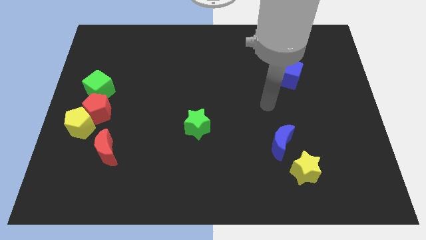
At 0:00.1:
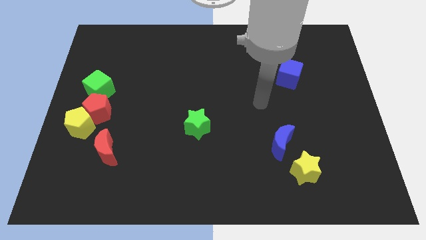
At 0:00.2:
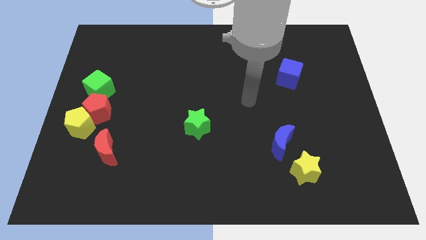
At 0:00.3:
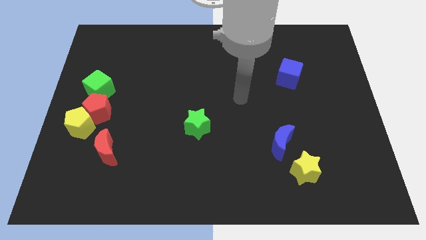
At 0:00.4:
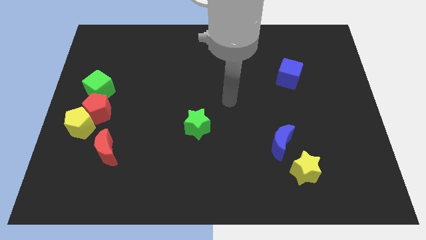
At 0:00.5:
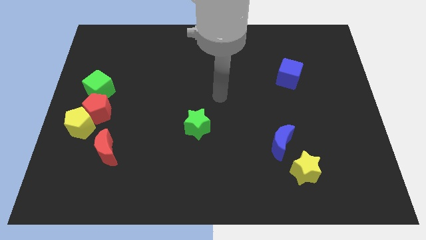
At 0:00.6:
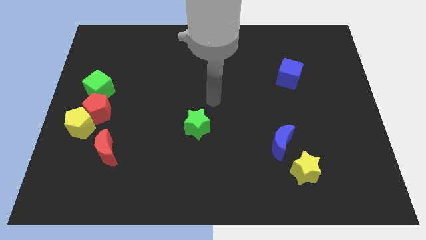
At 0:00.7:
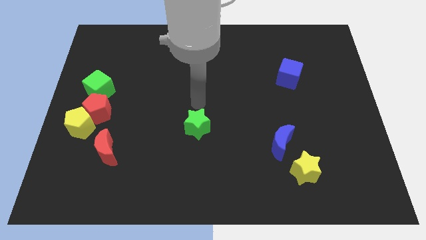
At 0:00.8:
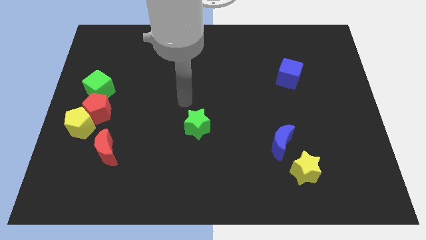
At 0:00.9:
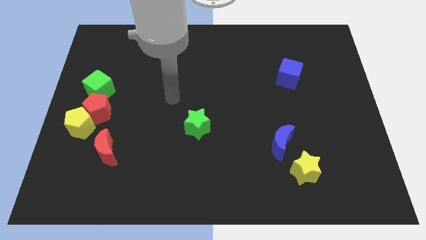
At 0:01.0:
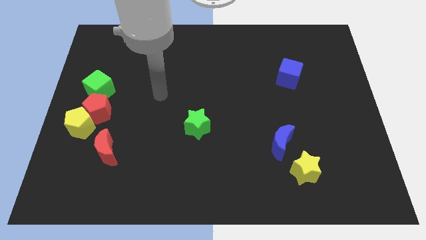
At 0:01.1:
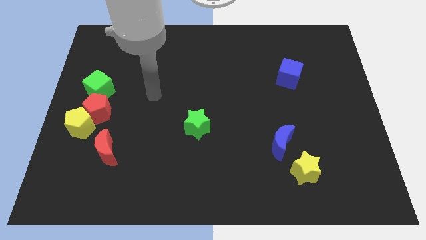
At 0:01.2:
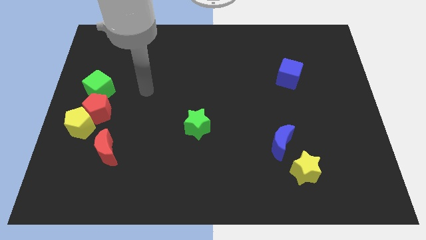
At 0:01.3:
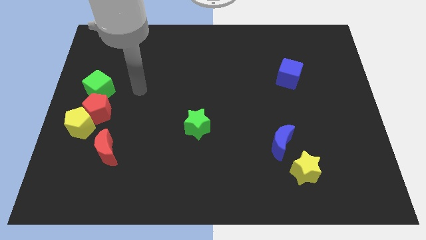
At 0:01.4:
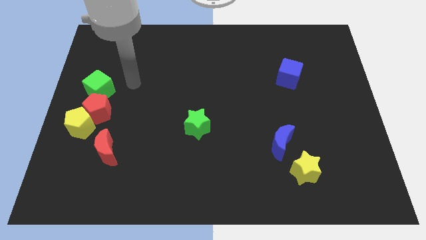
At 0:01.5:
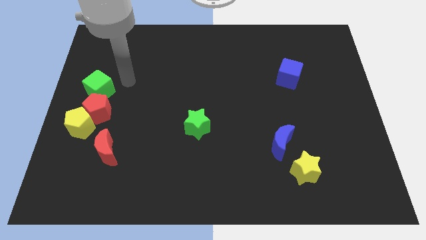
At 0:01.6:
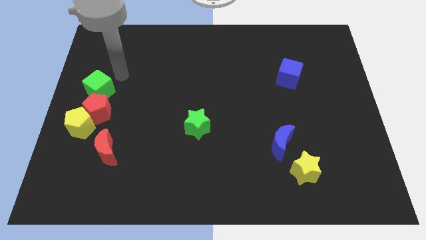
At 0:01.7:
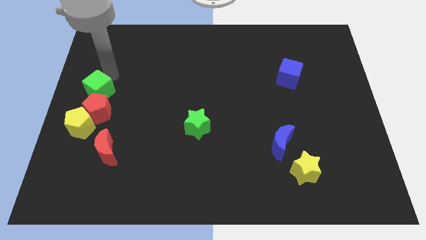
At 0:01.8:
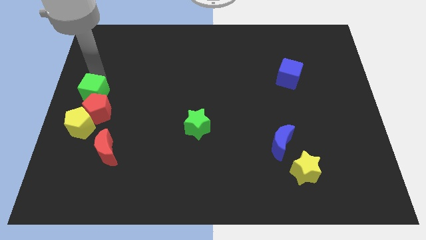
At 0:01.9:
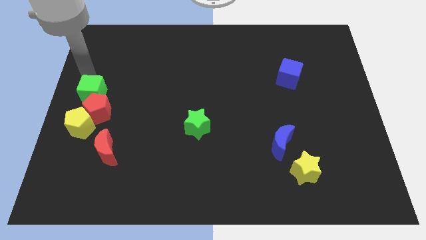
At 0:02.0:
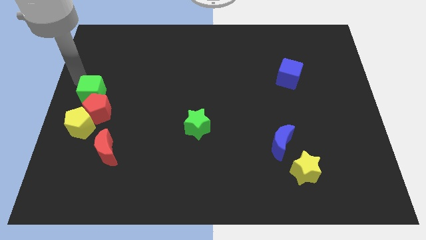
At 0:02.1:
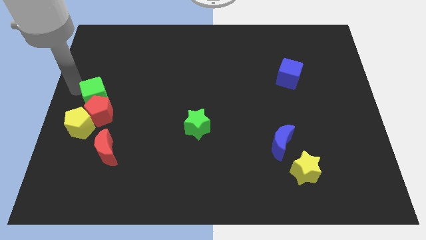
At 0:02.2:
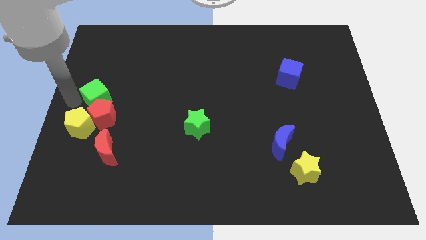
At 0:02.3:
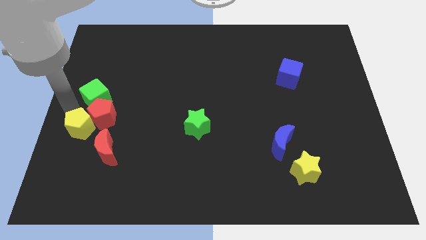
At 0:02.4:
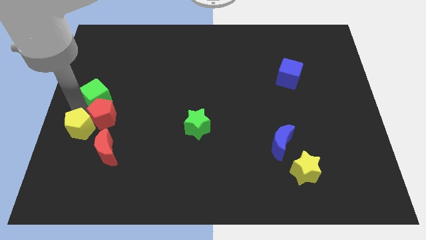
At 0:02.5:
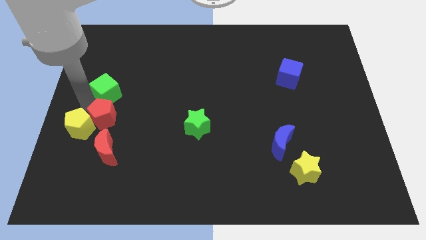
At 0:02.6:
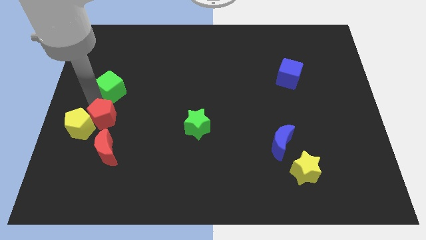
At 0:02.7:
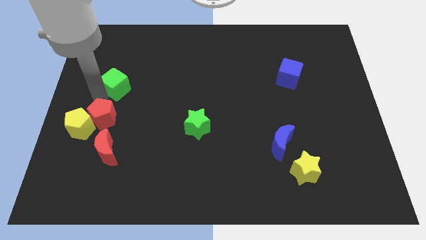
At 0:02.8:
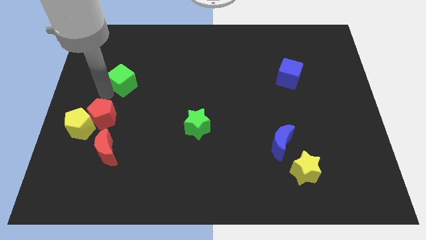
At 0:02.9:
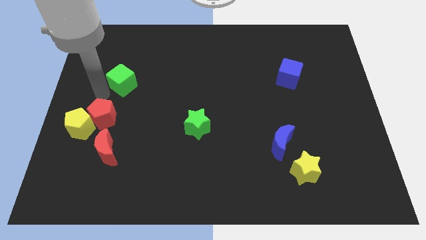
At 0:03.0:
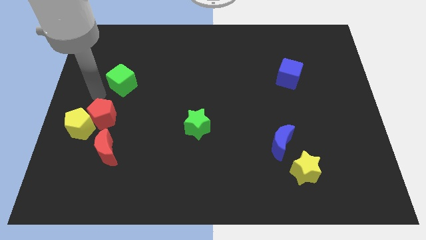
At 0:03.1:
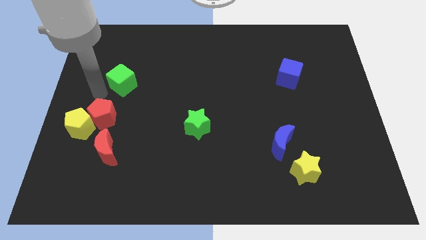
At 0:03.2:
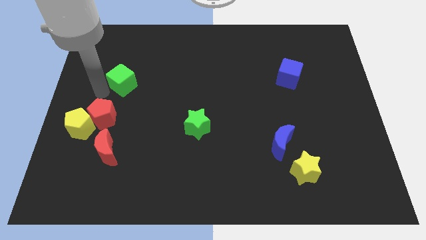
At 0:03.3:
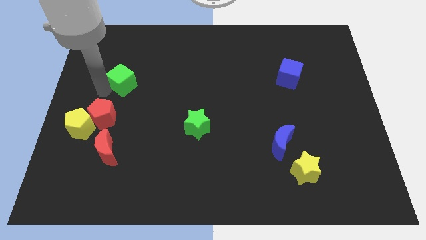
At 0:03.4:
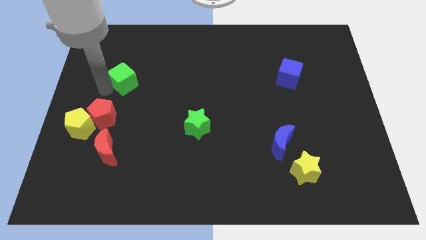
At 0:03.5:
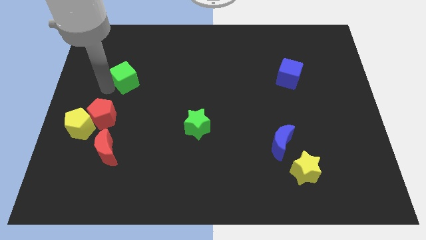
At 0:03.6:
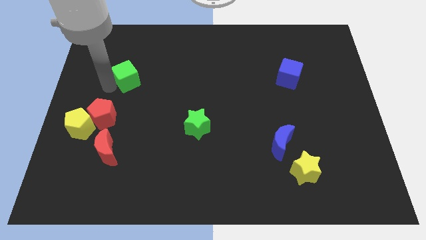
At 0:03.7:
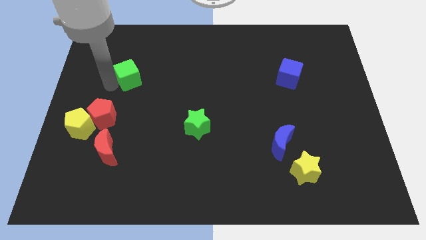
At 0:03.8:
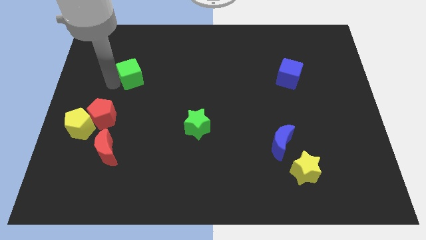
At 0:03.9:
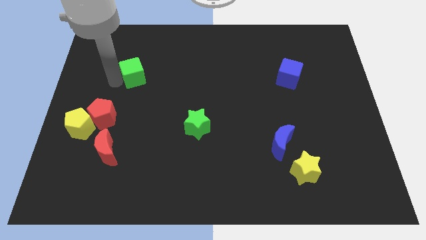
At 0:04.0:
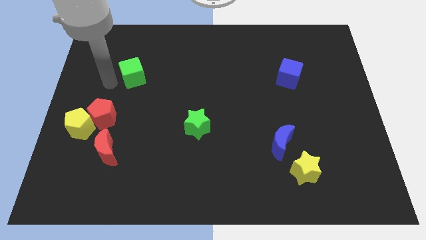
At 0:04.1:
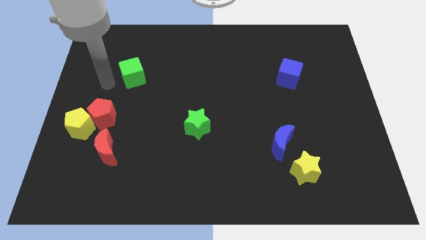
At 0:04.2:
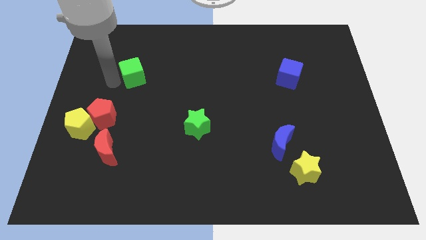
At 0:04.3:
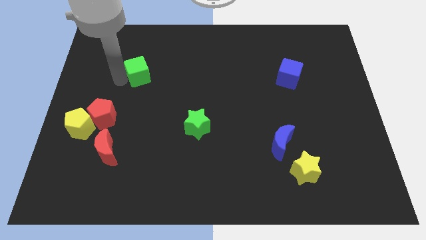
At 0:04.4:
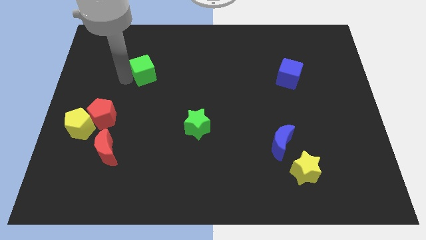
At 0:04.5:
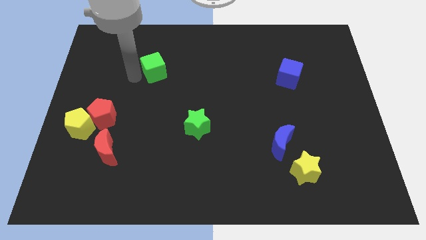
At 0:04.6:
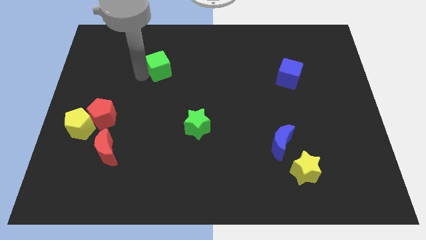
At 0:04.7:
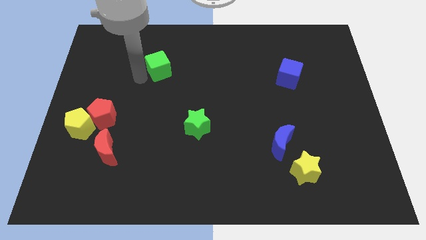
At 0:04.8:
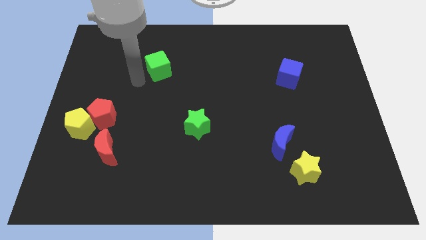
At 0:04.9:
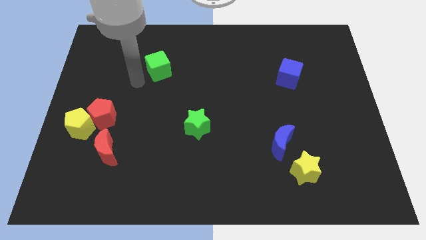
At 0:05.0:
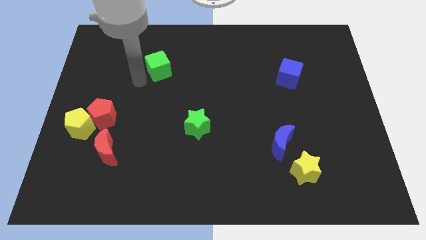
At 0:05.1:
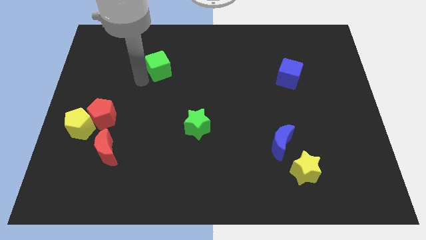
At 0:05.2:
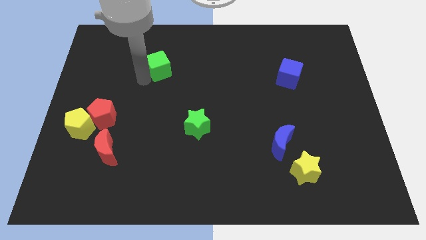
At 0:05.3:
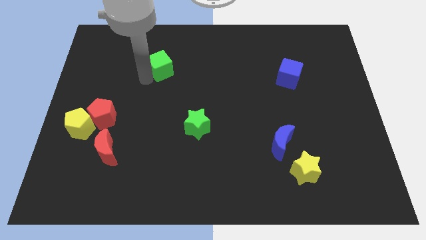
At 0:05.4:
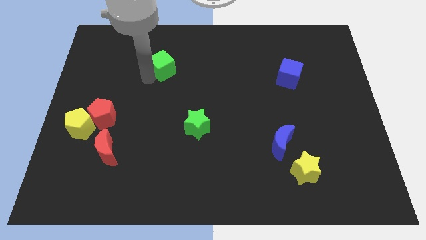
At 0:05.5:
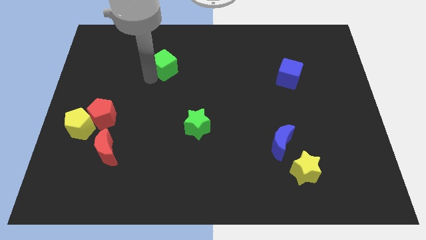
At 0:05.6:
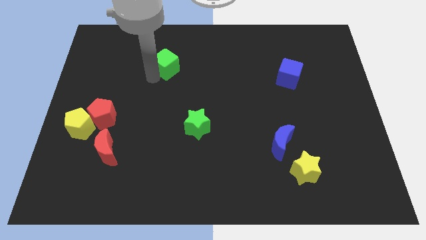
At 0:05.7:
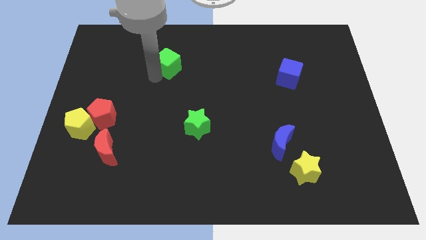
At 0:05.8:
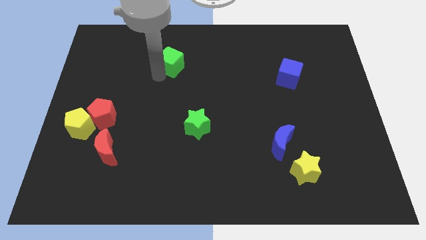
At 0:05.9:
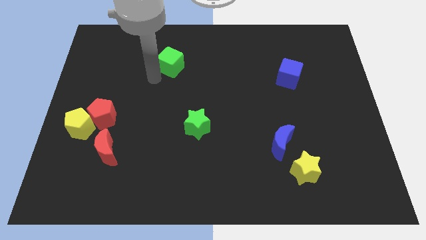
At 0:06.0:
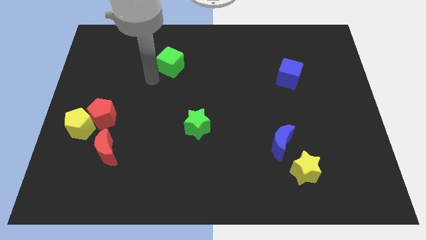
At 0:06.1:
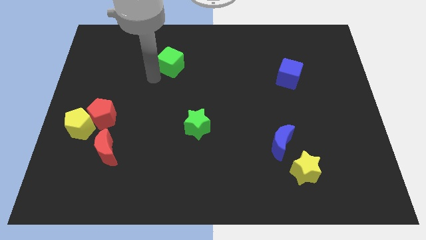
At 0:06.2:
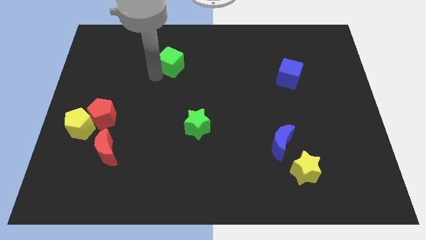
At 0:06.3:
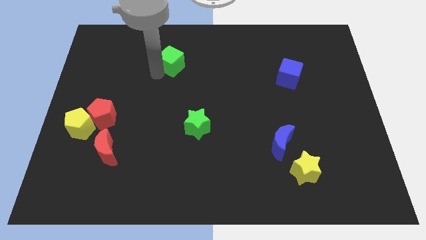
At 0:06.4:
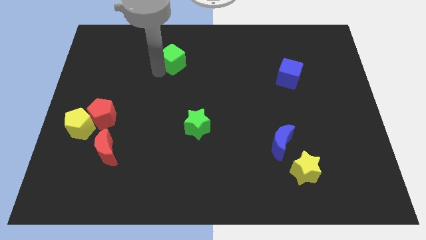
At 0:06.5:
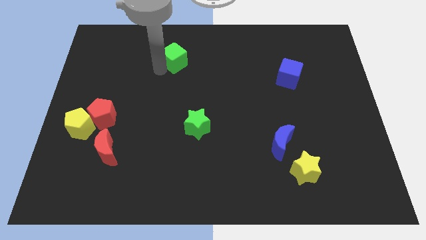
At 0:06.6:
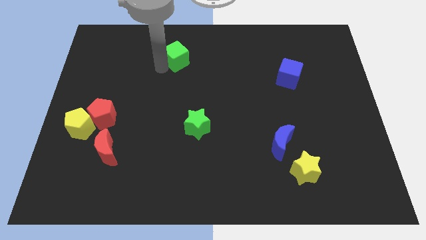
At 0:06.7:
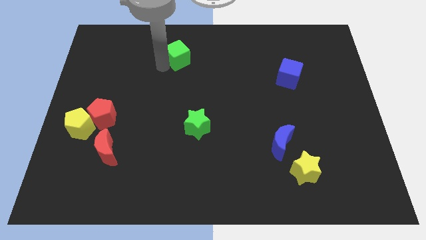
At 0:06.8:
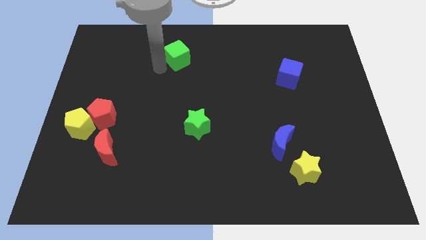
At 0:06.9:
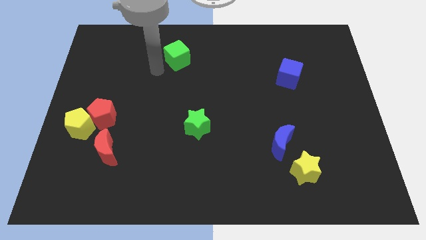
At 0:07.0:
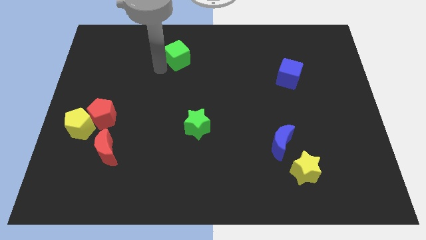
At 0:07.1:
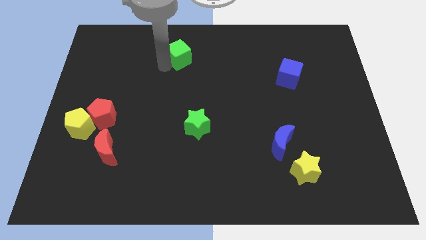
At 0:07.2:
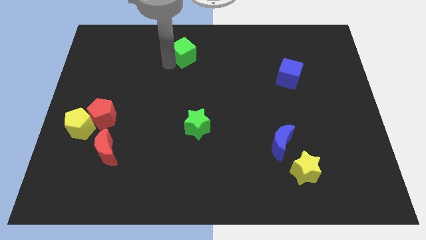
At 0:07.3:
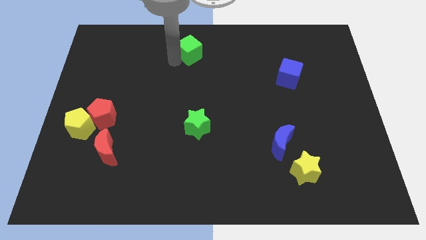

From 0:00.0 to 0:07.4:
move the green cube to the top side
